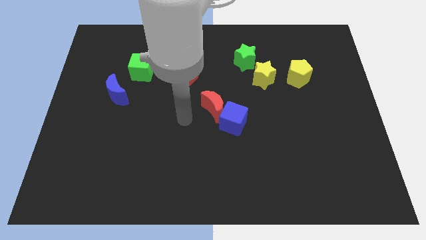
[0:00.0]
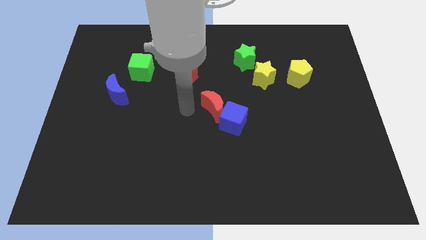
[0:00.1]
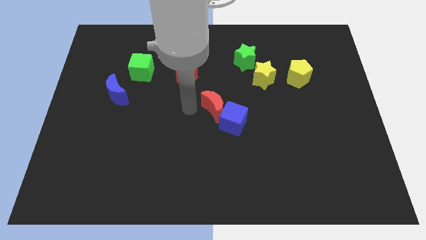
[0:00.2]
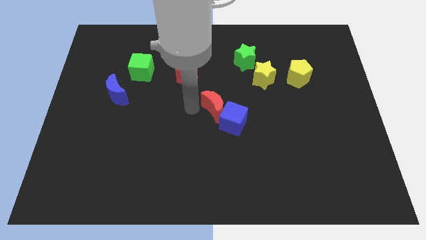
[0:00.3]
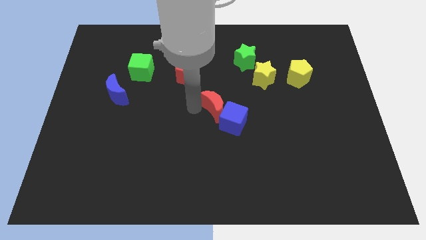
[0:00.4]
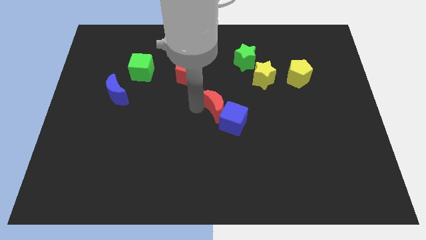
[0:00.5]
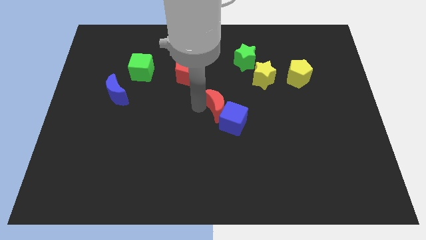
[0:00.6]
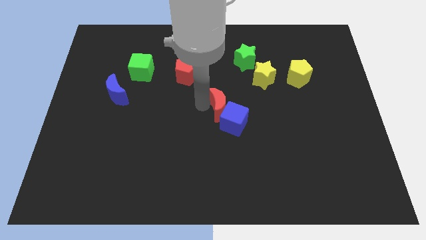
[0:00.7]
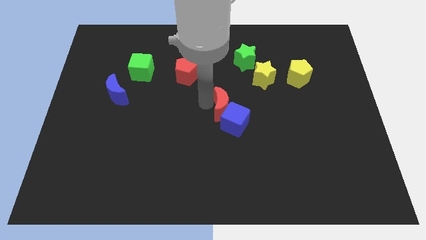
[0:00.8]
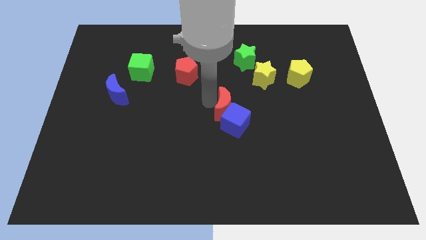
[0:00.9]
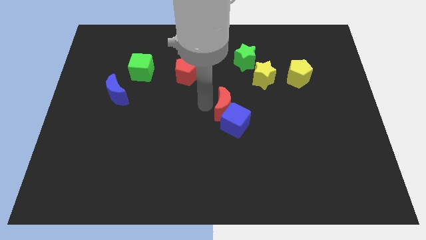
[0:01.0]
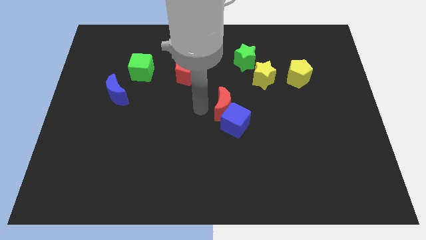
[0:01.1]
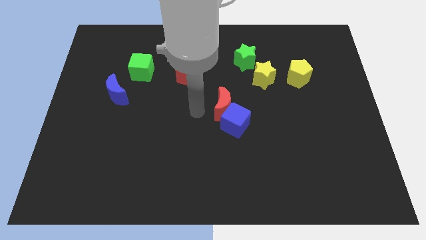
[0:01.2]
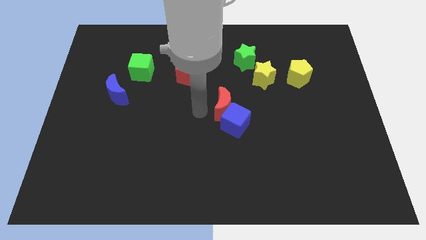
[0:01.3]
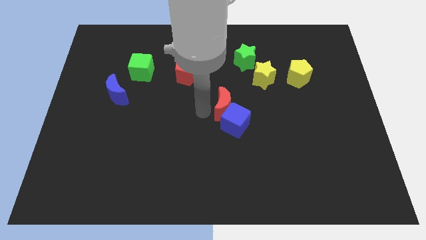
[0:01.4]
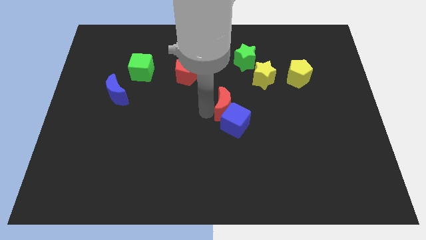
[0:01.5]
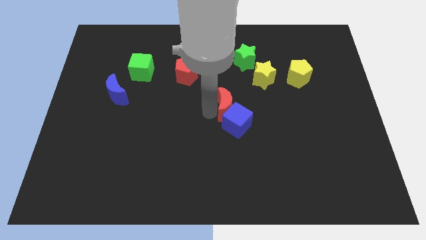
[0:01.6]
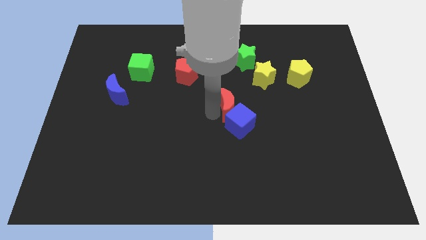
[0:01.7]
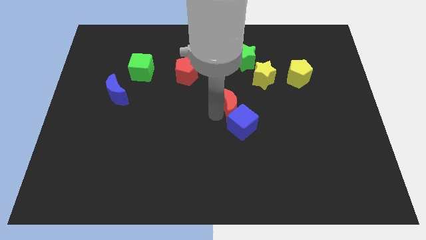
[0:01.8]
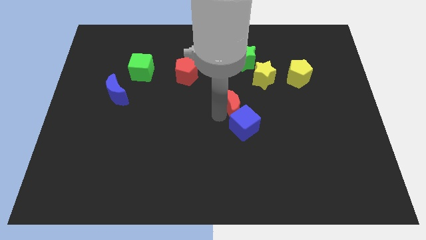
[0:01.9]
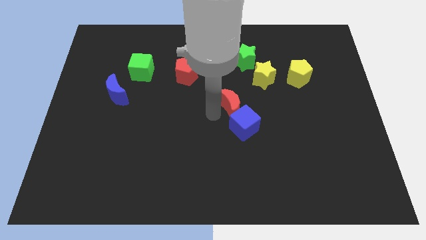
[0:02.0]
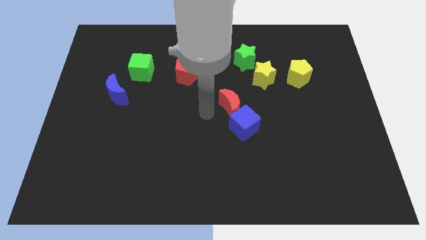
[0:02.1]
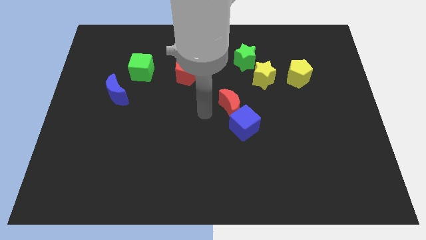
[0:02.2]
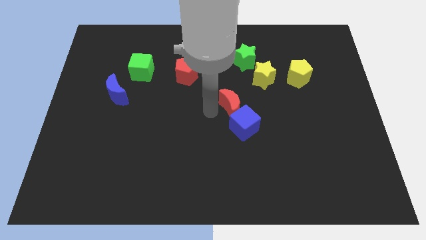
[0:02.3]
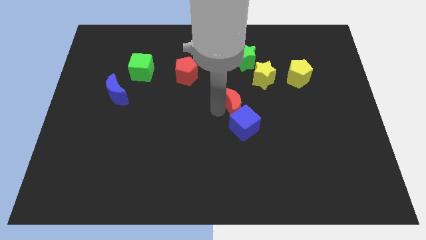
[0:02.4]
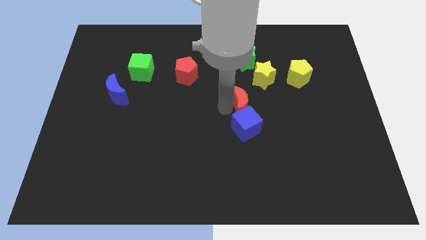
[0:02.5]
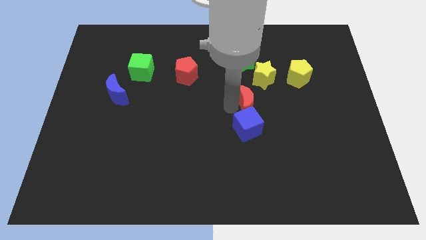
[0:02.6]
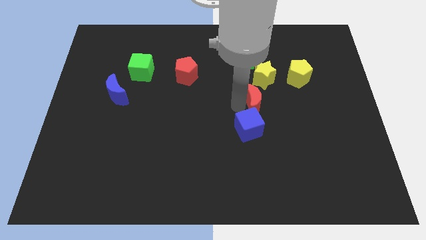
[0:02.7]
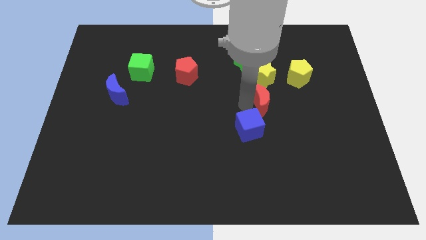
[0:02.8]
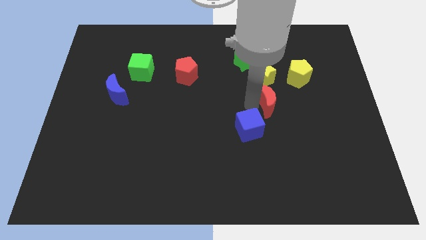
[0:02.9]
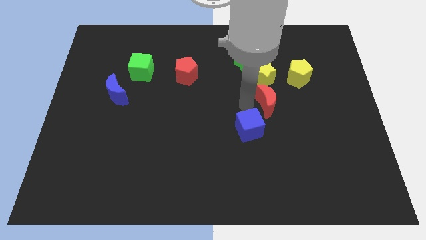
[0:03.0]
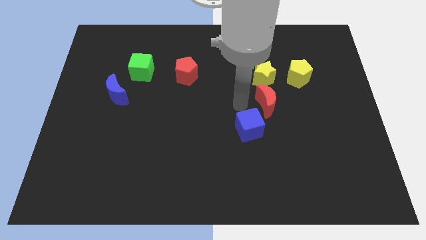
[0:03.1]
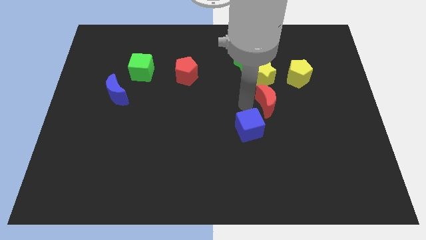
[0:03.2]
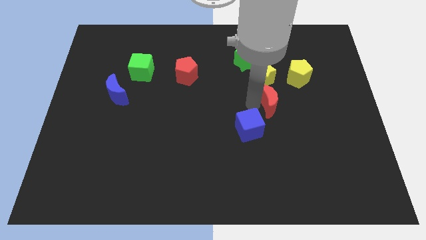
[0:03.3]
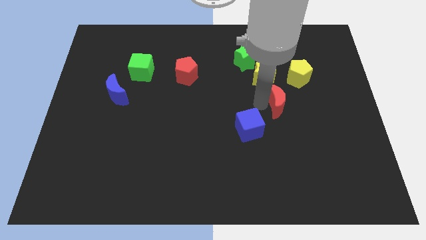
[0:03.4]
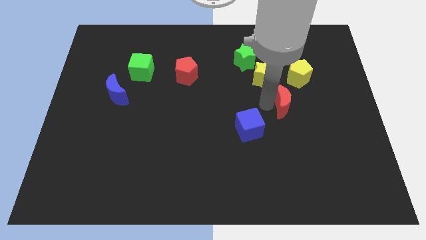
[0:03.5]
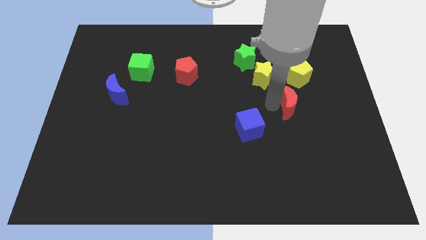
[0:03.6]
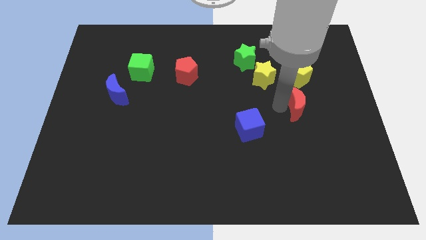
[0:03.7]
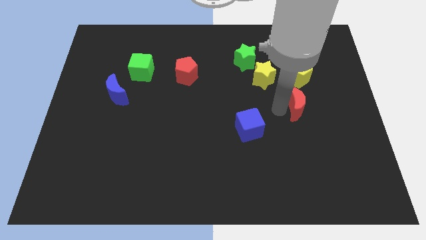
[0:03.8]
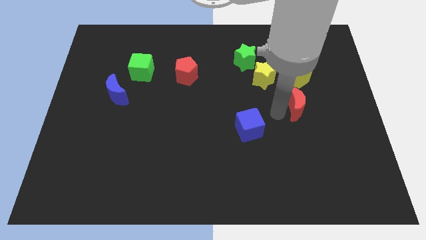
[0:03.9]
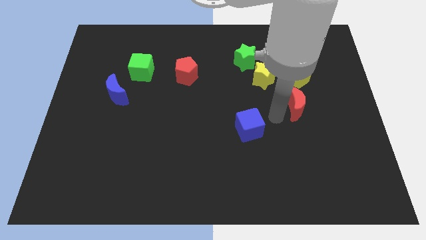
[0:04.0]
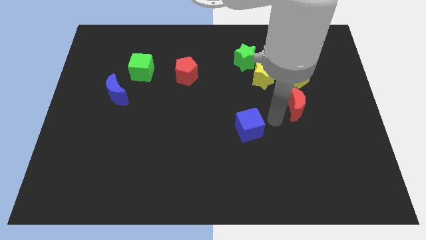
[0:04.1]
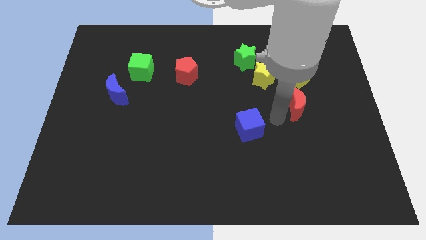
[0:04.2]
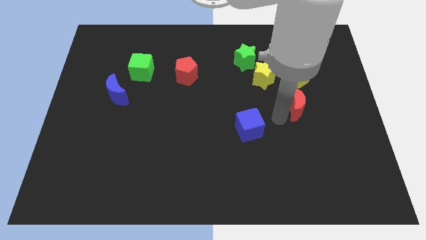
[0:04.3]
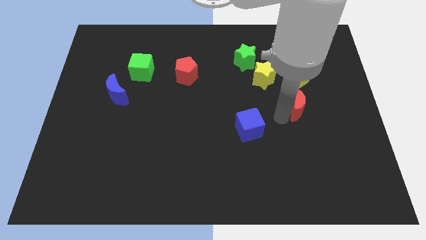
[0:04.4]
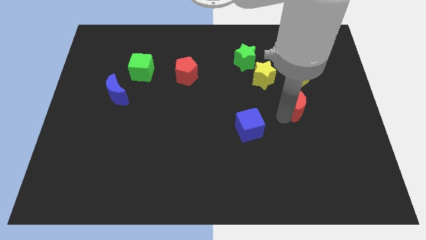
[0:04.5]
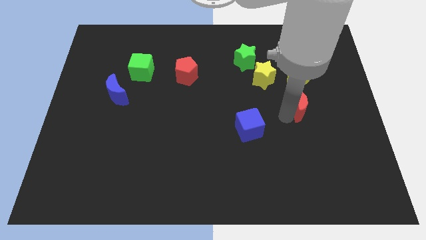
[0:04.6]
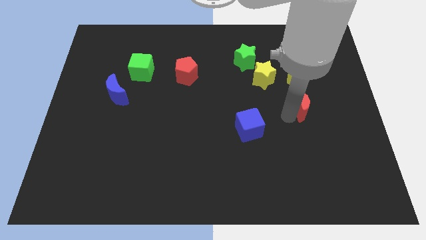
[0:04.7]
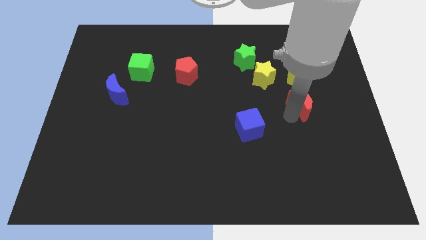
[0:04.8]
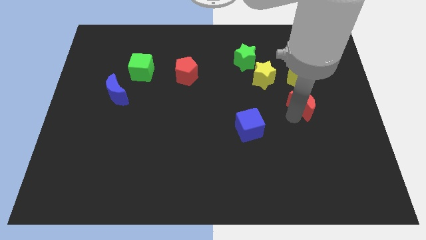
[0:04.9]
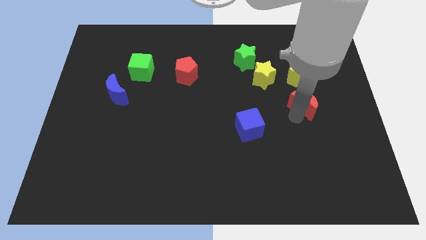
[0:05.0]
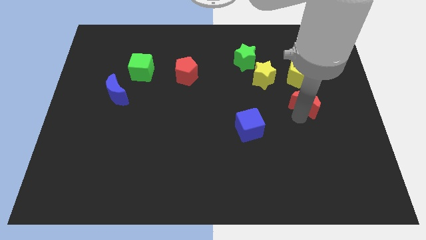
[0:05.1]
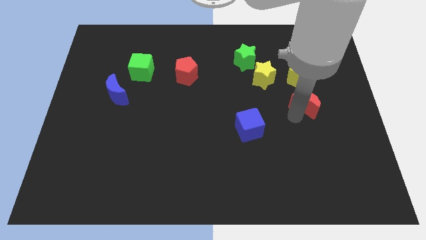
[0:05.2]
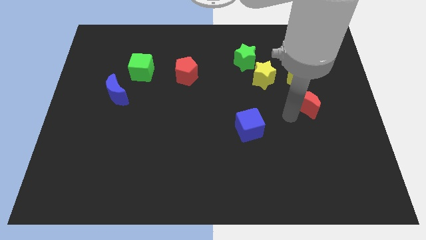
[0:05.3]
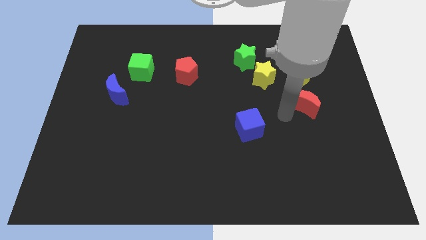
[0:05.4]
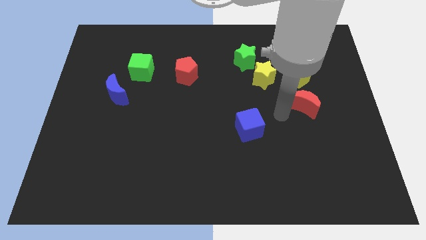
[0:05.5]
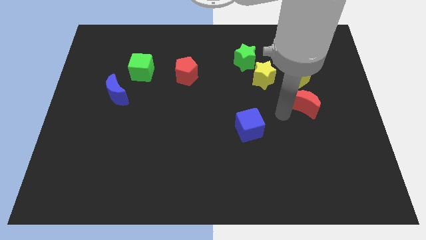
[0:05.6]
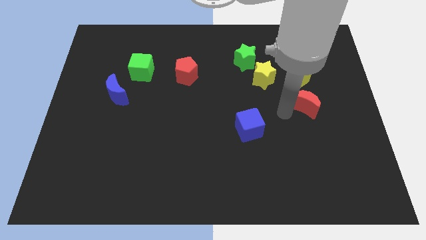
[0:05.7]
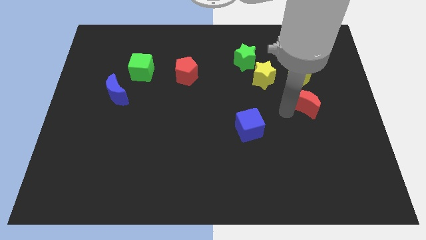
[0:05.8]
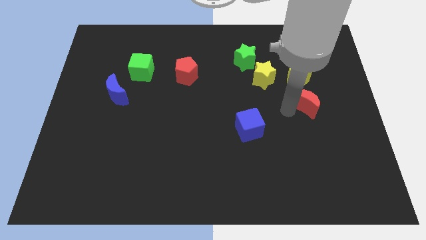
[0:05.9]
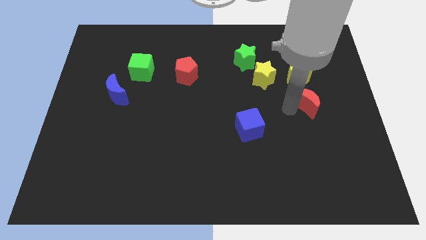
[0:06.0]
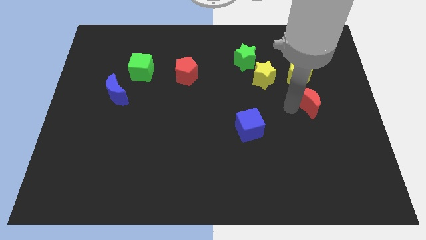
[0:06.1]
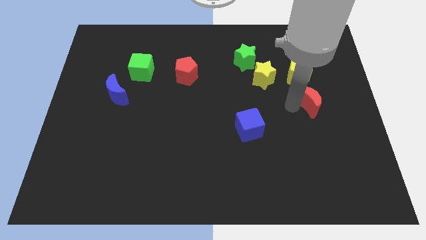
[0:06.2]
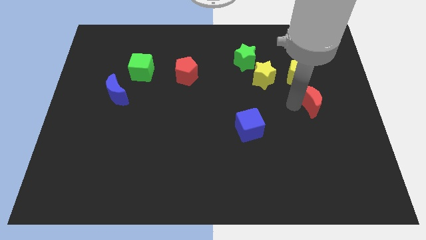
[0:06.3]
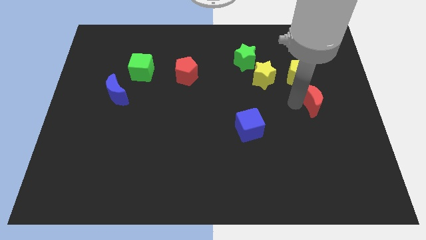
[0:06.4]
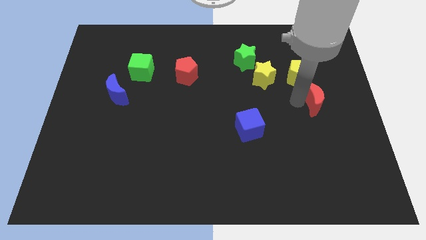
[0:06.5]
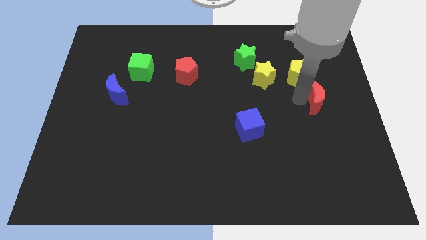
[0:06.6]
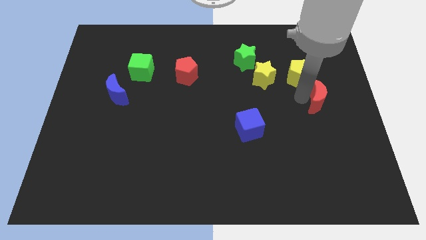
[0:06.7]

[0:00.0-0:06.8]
slide the red moon to the center right
